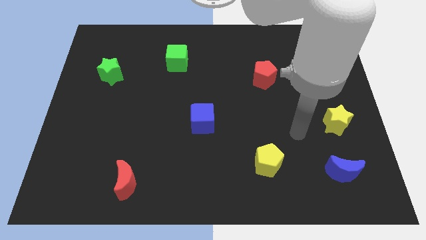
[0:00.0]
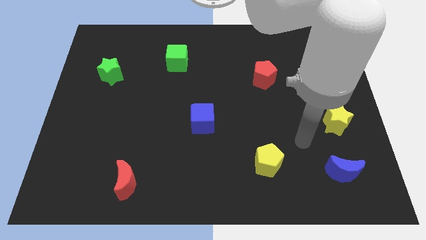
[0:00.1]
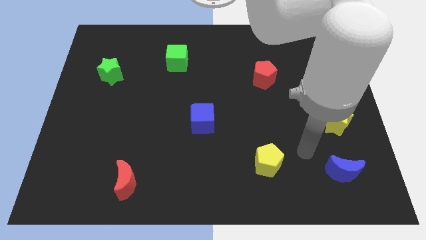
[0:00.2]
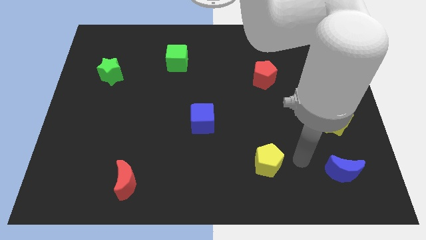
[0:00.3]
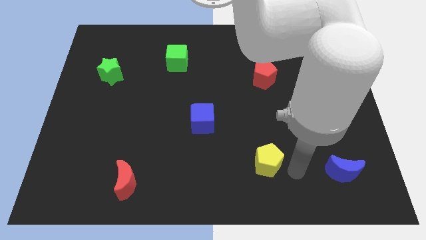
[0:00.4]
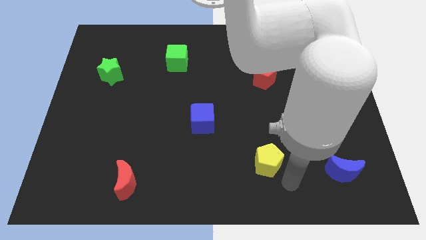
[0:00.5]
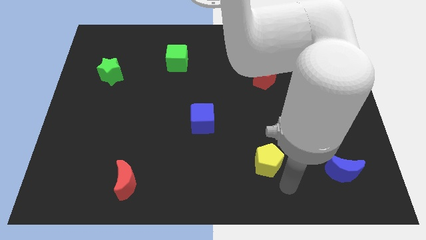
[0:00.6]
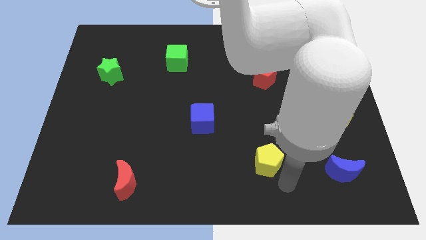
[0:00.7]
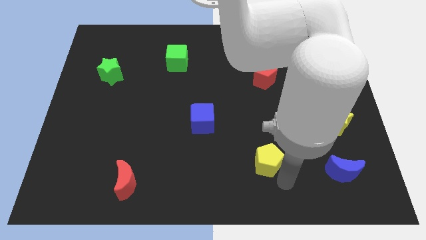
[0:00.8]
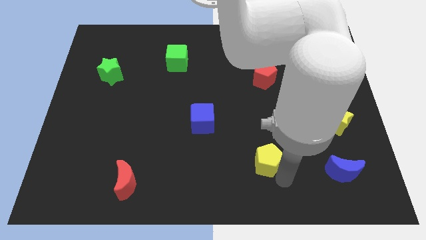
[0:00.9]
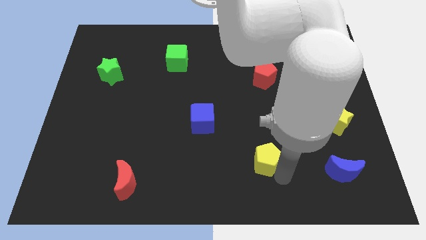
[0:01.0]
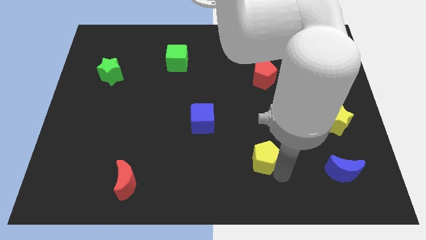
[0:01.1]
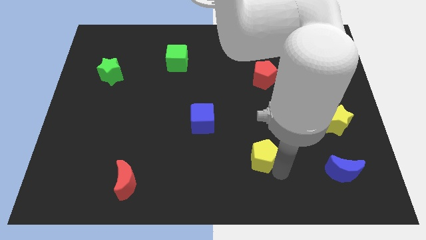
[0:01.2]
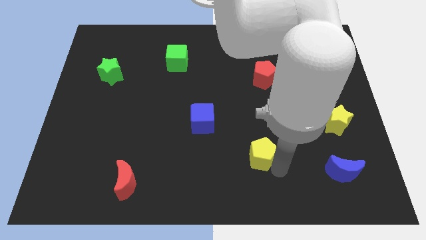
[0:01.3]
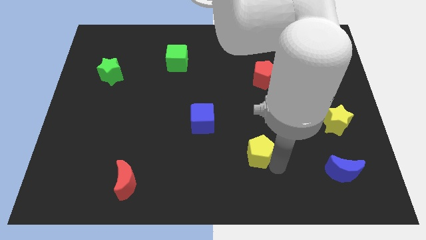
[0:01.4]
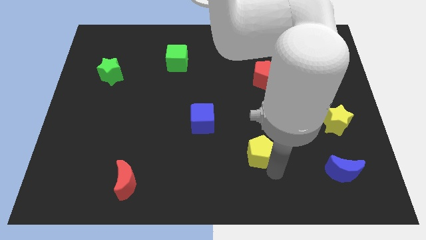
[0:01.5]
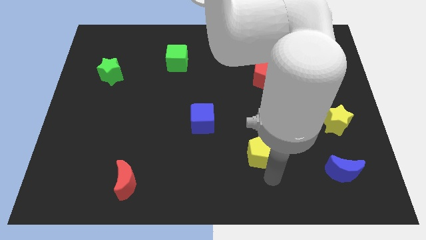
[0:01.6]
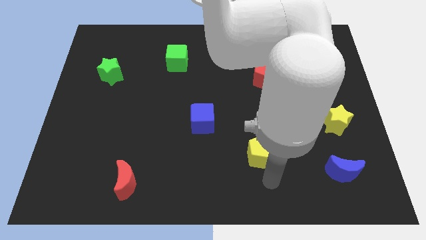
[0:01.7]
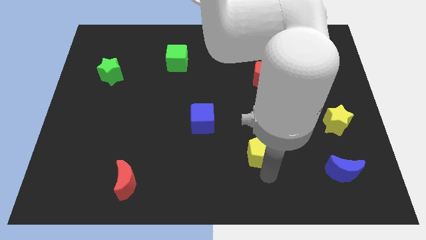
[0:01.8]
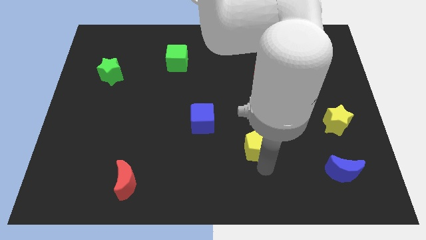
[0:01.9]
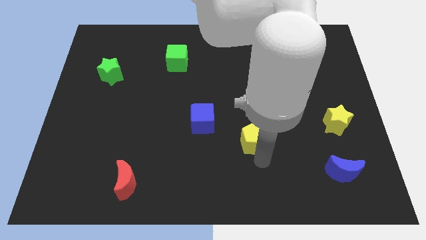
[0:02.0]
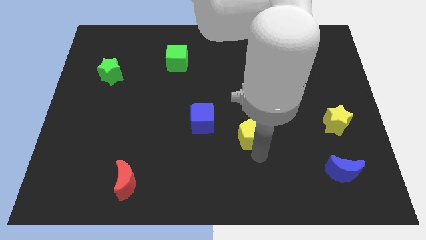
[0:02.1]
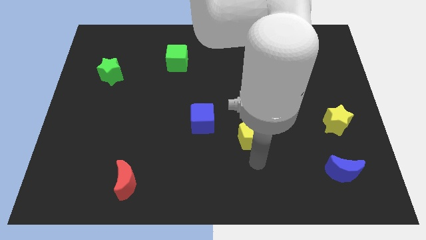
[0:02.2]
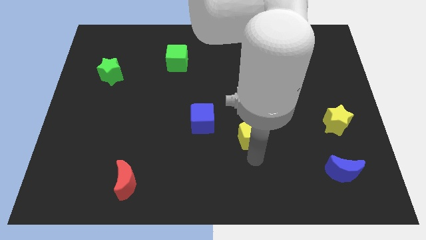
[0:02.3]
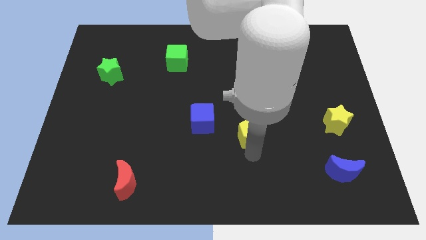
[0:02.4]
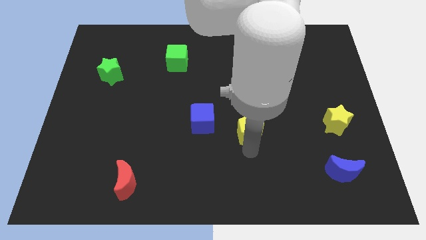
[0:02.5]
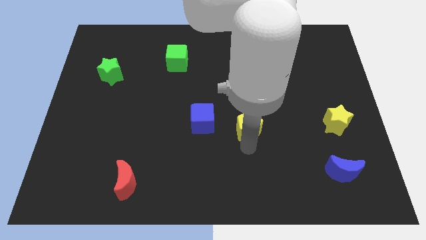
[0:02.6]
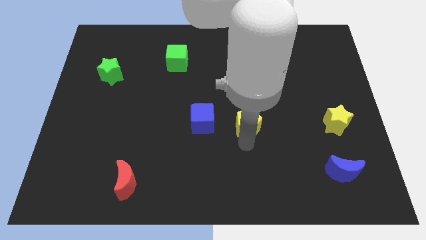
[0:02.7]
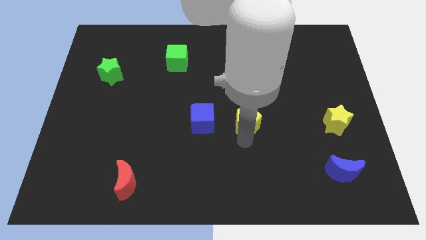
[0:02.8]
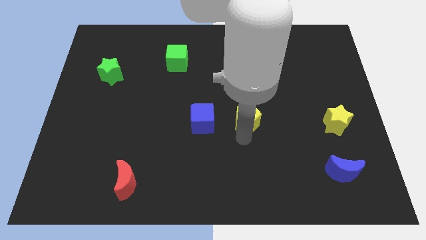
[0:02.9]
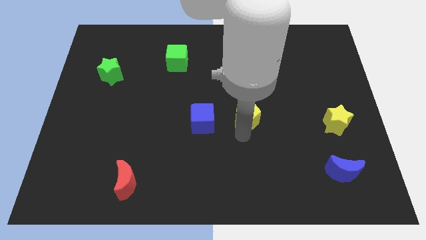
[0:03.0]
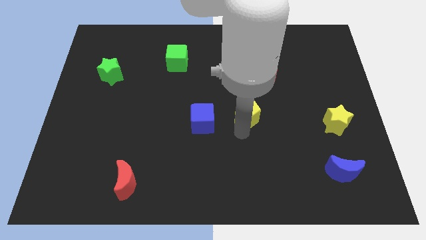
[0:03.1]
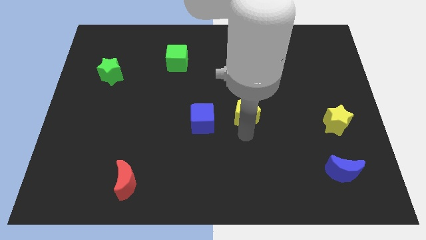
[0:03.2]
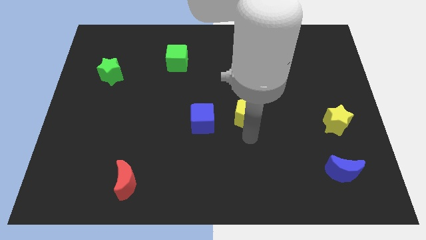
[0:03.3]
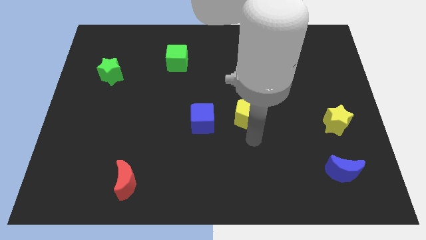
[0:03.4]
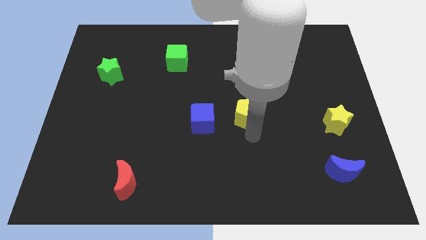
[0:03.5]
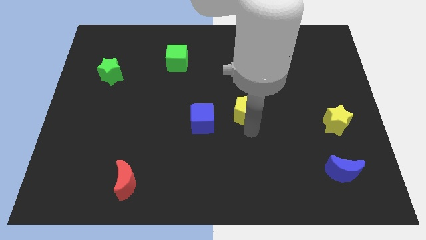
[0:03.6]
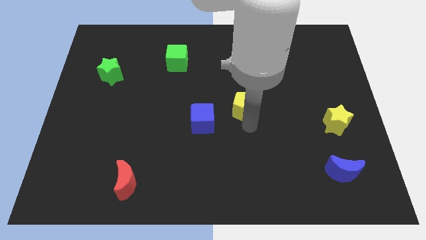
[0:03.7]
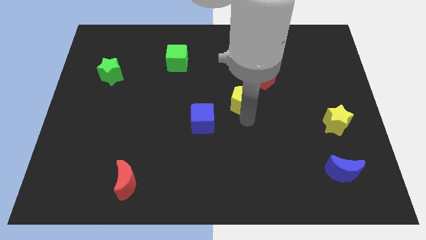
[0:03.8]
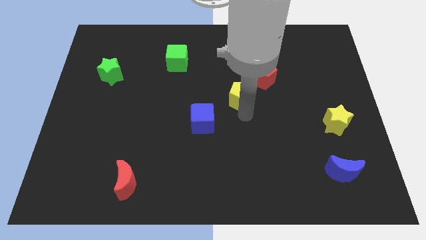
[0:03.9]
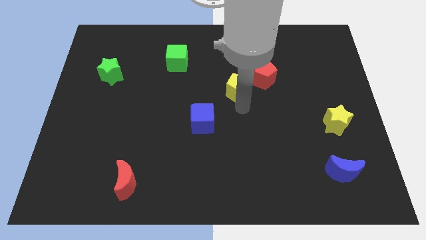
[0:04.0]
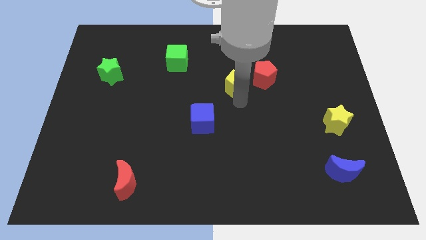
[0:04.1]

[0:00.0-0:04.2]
push the yellow pentagon upwards

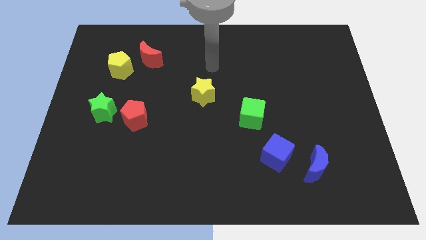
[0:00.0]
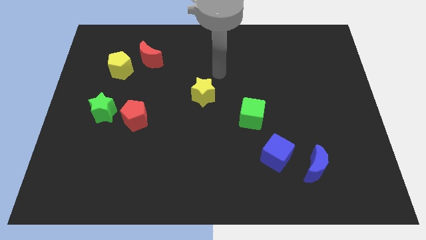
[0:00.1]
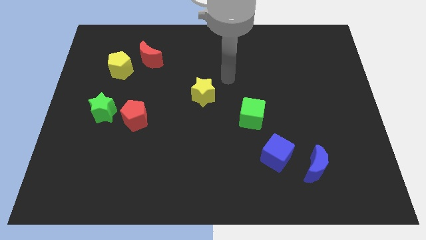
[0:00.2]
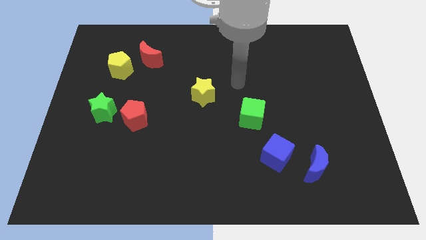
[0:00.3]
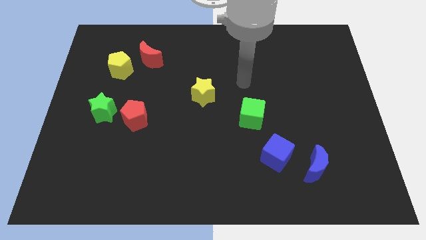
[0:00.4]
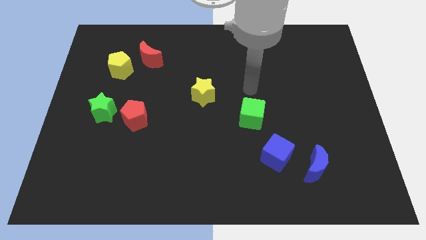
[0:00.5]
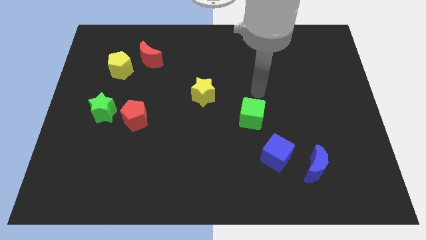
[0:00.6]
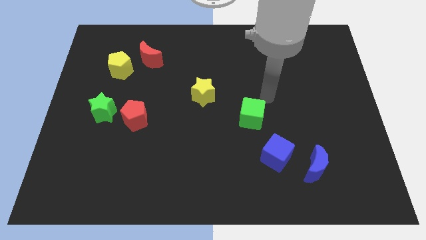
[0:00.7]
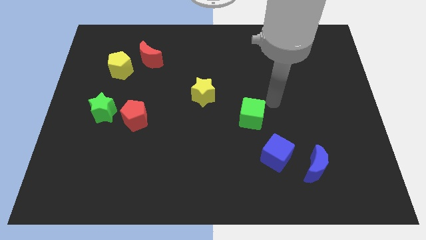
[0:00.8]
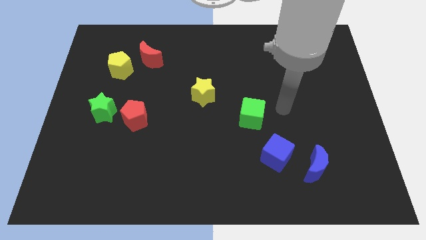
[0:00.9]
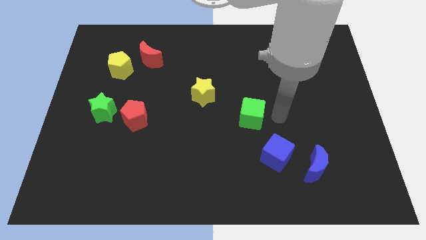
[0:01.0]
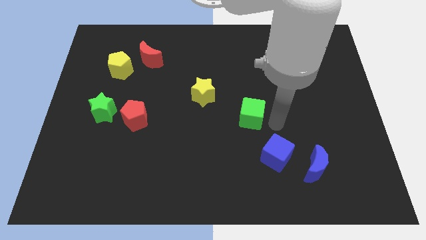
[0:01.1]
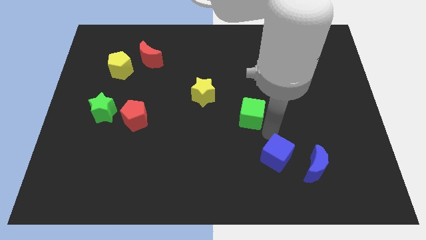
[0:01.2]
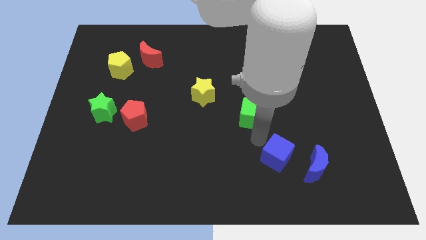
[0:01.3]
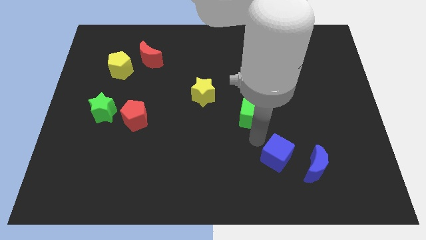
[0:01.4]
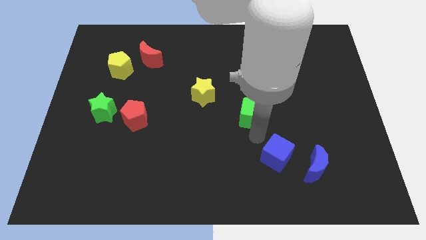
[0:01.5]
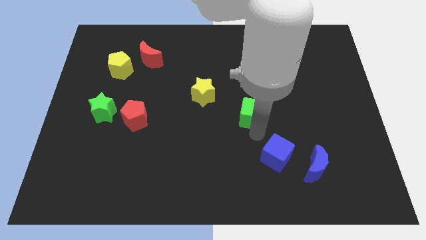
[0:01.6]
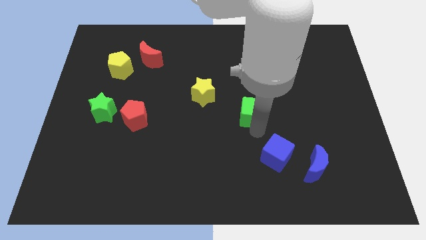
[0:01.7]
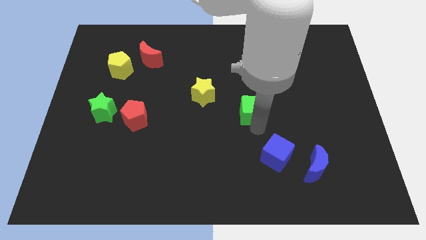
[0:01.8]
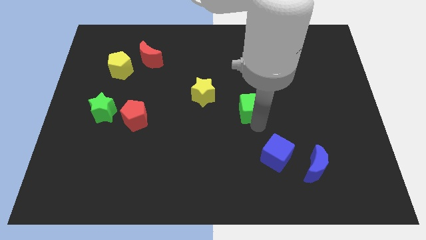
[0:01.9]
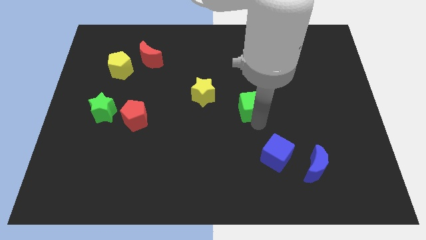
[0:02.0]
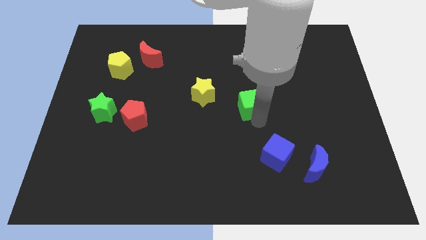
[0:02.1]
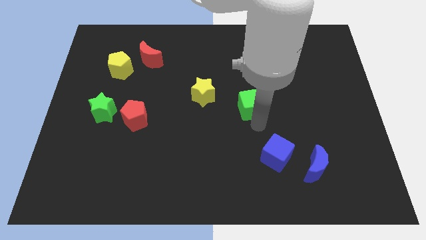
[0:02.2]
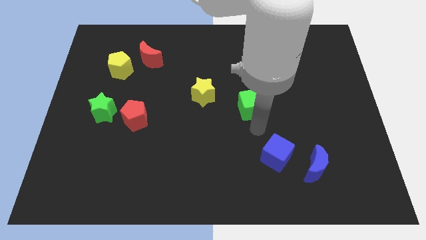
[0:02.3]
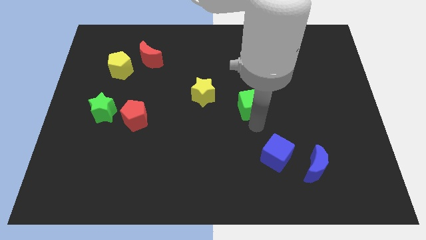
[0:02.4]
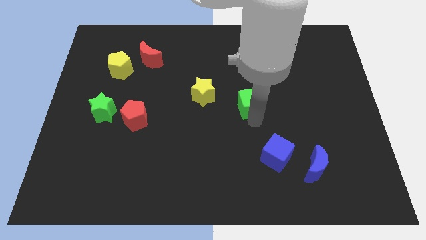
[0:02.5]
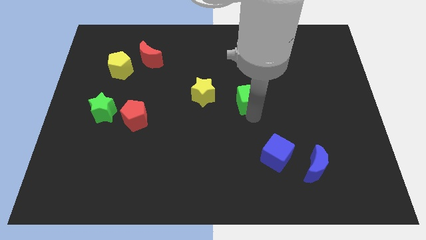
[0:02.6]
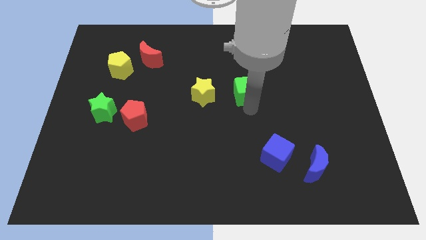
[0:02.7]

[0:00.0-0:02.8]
slightly slide the green cube up

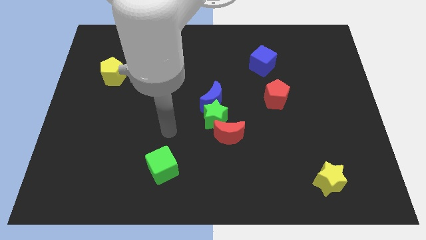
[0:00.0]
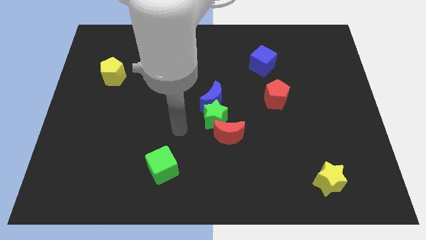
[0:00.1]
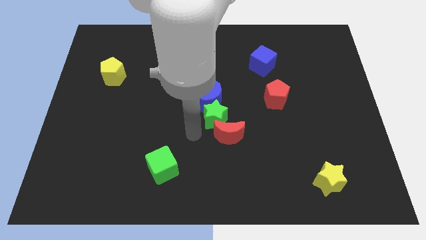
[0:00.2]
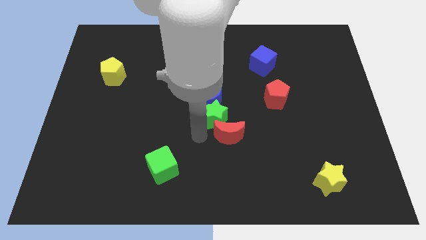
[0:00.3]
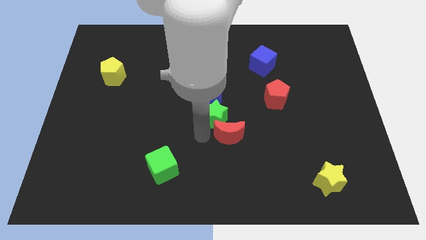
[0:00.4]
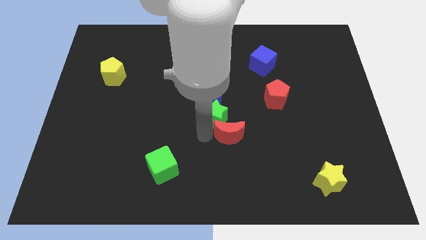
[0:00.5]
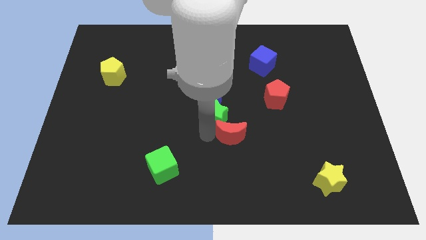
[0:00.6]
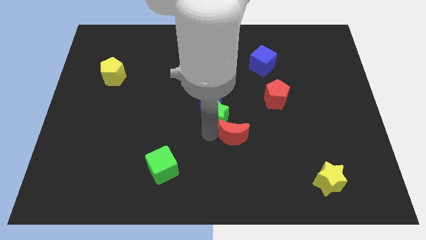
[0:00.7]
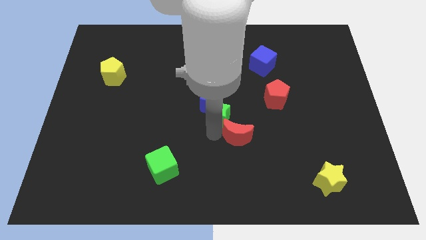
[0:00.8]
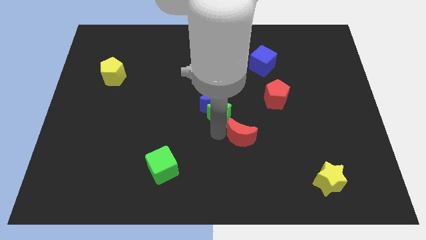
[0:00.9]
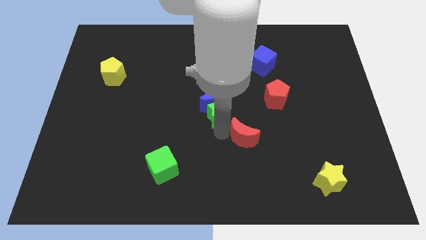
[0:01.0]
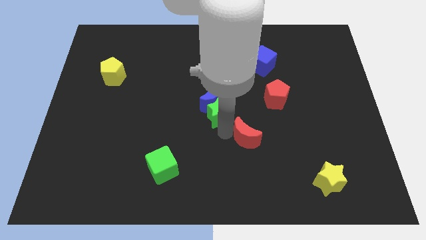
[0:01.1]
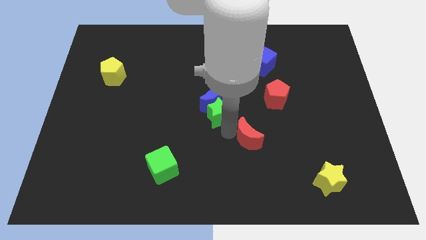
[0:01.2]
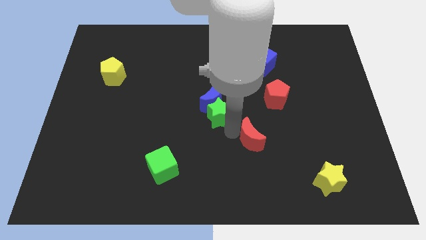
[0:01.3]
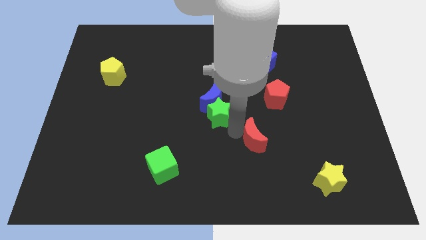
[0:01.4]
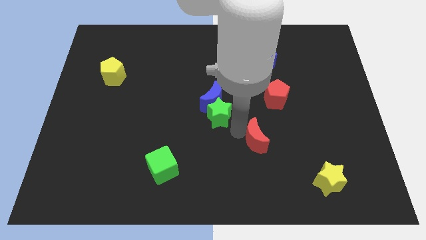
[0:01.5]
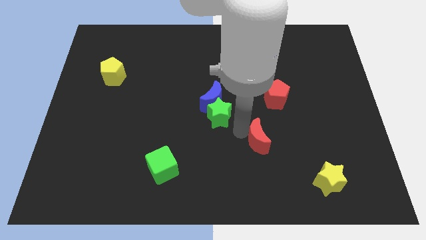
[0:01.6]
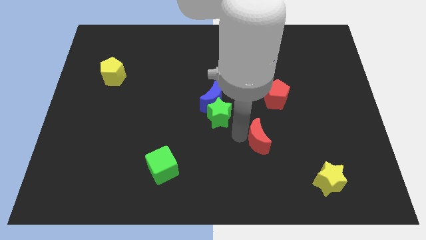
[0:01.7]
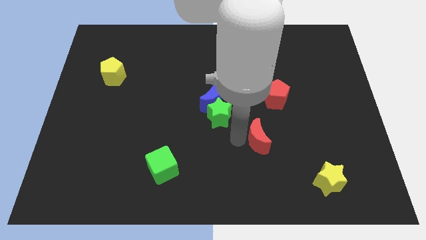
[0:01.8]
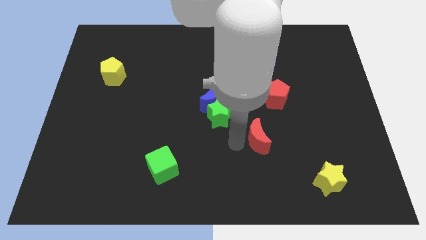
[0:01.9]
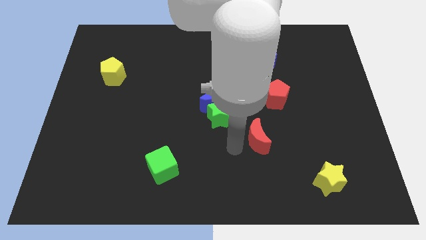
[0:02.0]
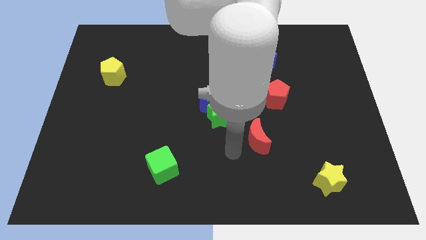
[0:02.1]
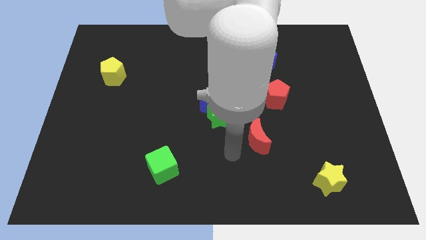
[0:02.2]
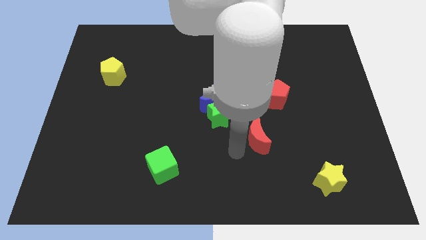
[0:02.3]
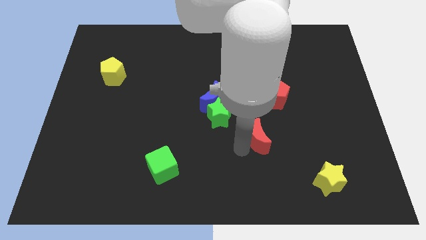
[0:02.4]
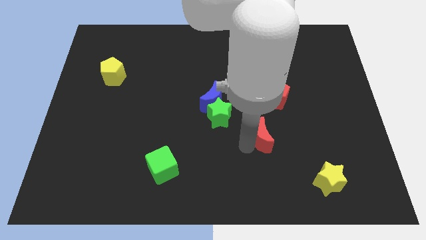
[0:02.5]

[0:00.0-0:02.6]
move the red moon right a little bit
